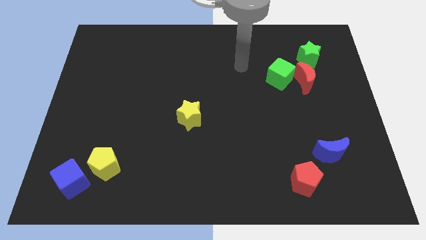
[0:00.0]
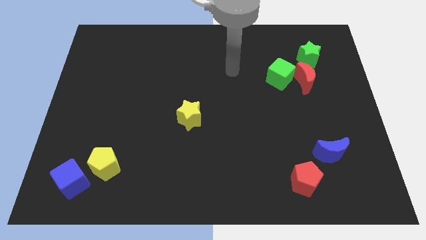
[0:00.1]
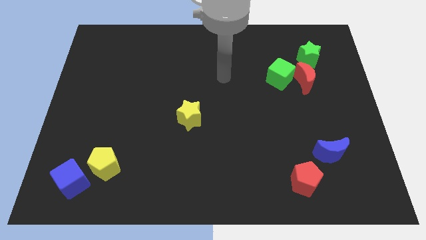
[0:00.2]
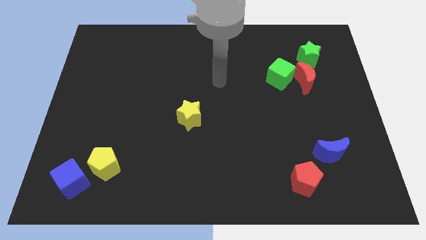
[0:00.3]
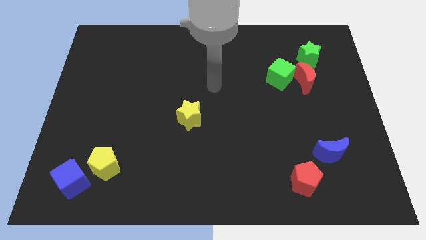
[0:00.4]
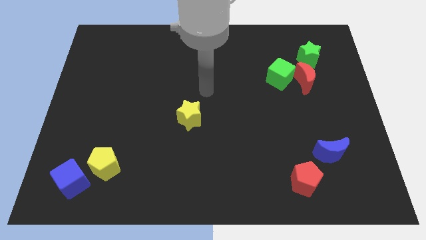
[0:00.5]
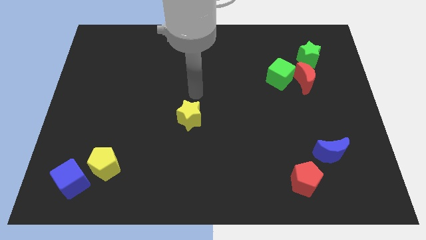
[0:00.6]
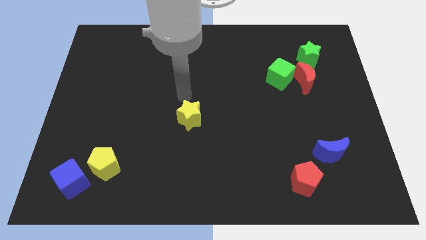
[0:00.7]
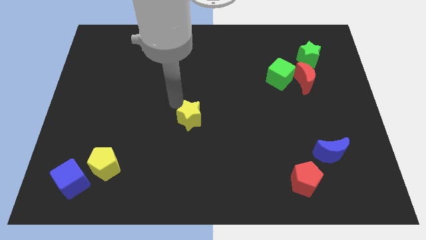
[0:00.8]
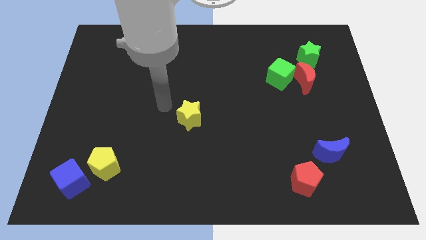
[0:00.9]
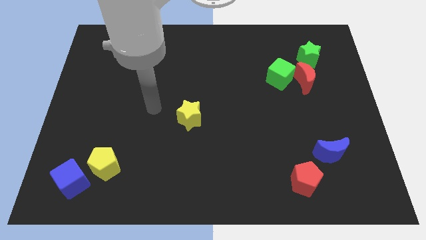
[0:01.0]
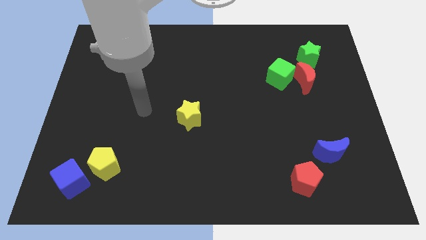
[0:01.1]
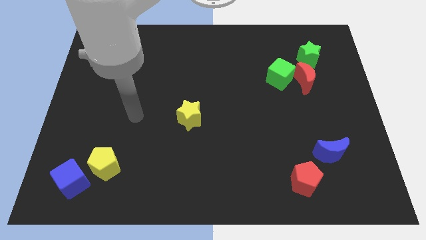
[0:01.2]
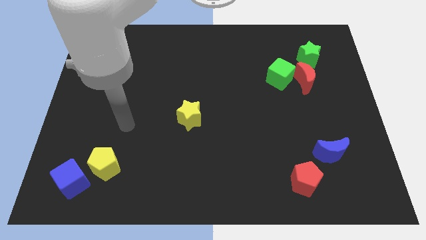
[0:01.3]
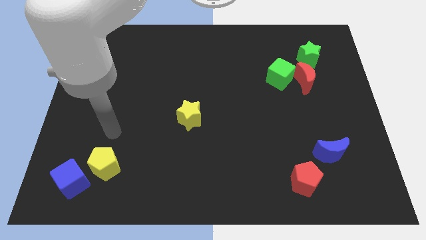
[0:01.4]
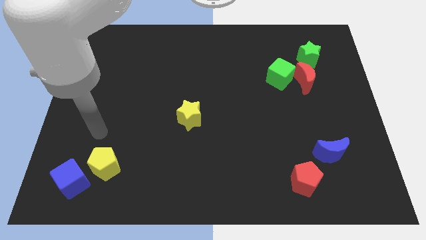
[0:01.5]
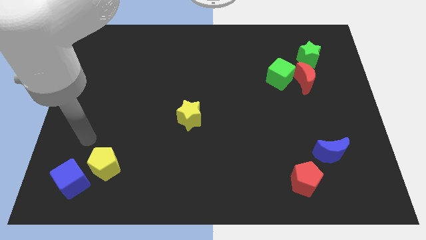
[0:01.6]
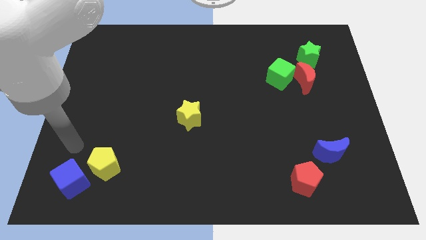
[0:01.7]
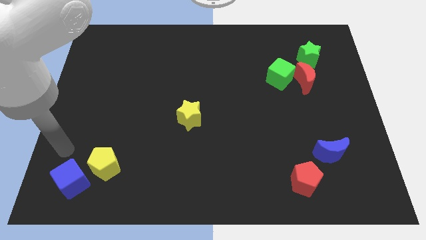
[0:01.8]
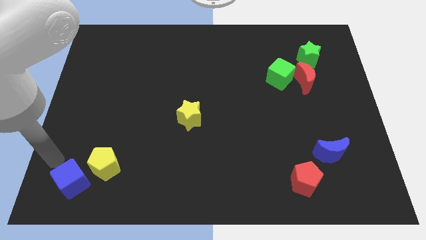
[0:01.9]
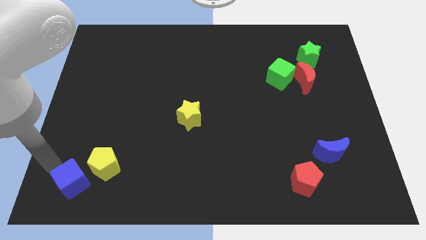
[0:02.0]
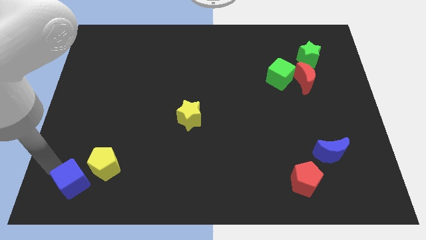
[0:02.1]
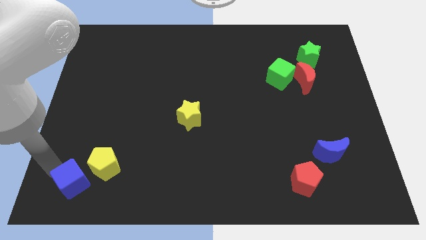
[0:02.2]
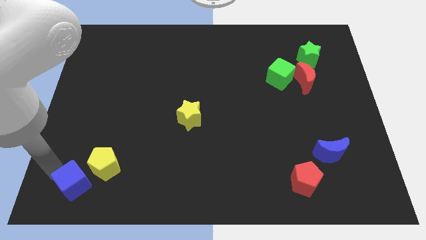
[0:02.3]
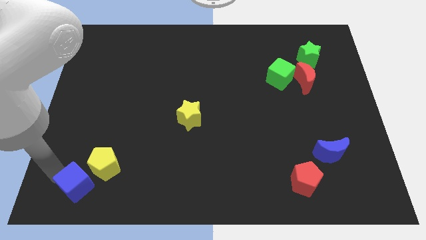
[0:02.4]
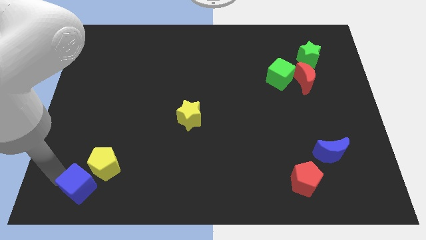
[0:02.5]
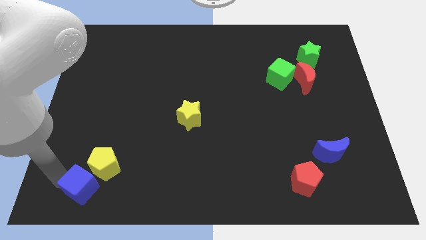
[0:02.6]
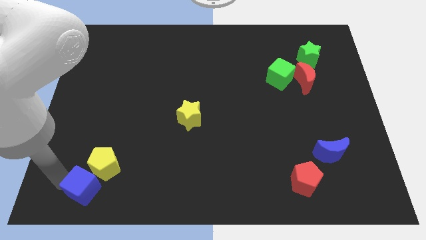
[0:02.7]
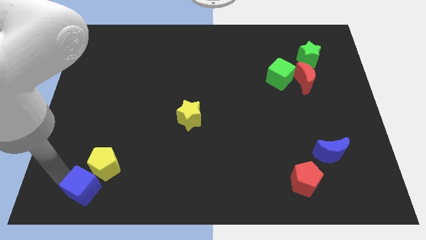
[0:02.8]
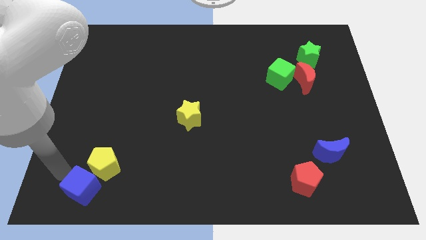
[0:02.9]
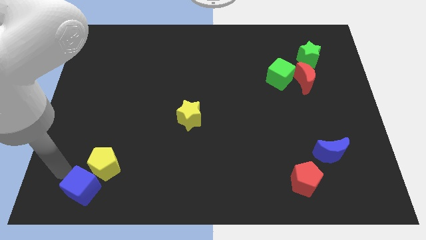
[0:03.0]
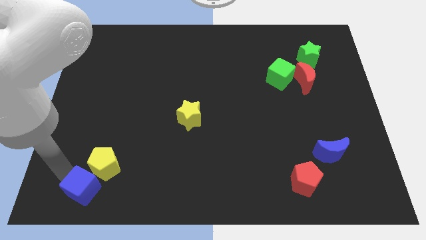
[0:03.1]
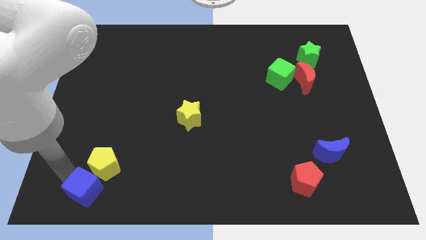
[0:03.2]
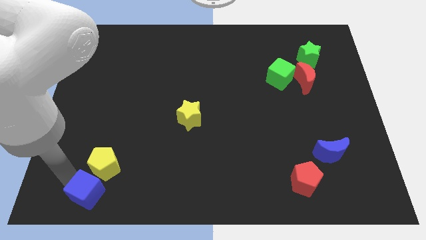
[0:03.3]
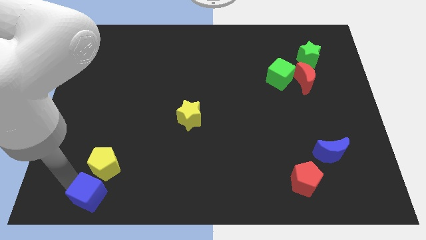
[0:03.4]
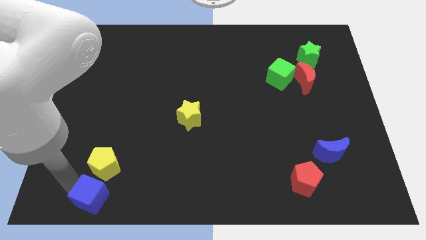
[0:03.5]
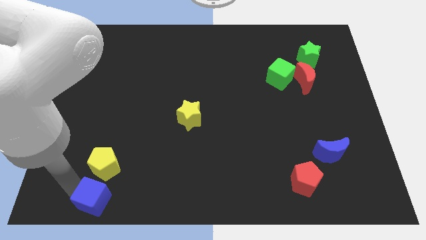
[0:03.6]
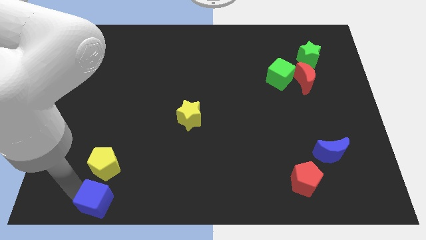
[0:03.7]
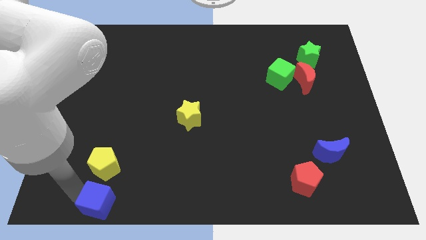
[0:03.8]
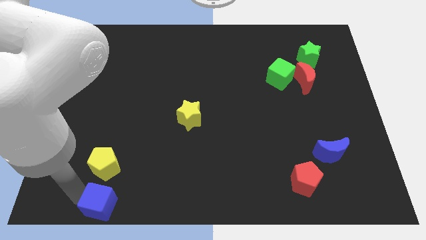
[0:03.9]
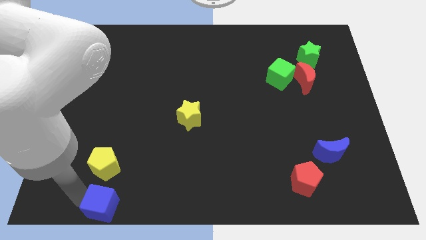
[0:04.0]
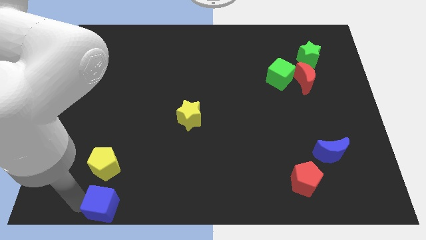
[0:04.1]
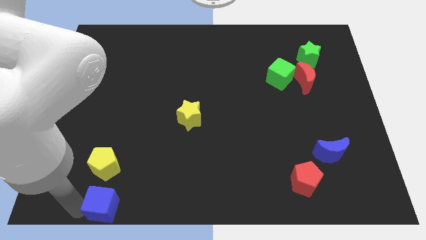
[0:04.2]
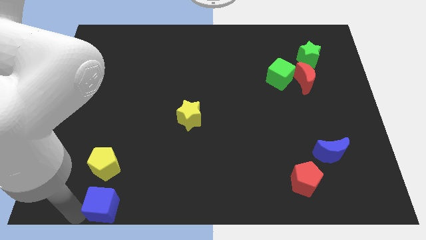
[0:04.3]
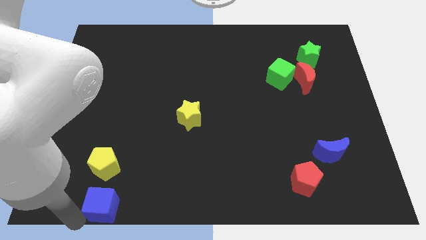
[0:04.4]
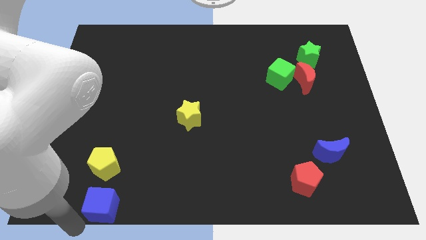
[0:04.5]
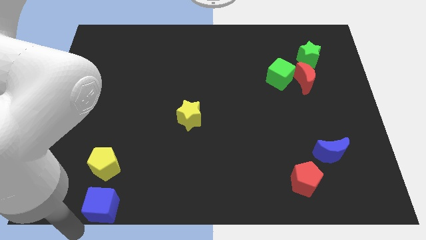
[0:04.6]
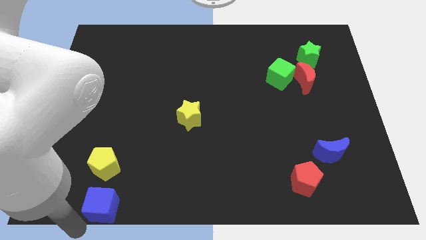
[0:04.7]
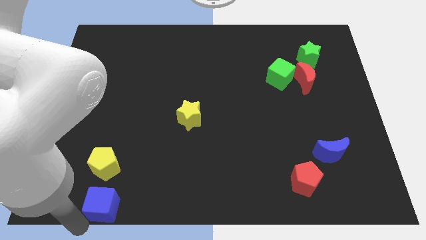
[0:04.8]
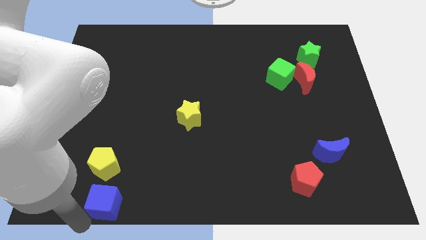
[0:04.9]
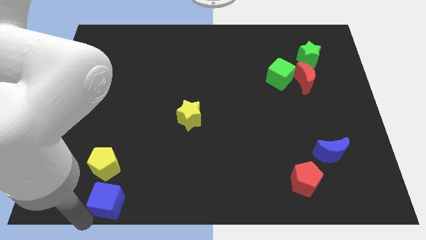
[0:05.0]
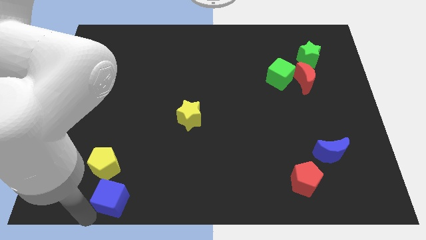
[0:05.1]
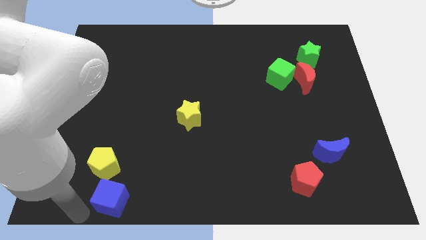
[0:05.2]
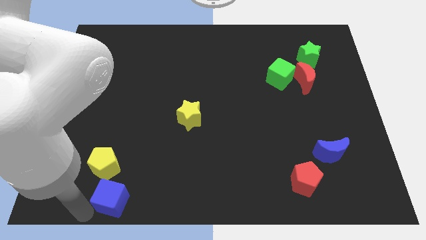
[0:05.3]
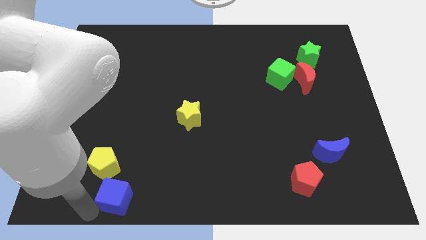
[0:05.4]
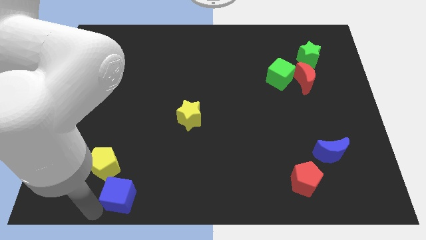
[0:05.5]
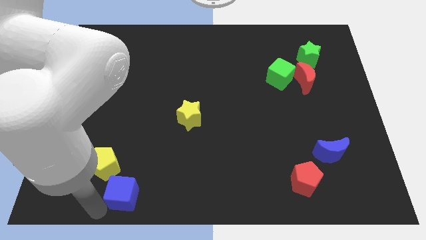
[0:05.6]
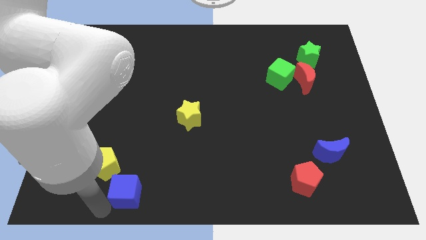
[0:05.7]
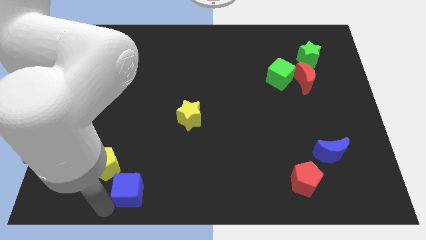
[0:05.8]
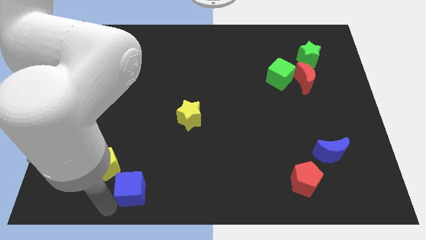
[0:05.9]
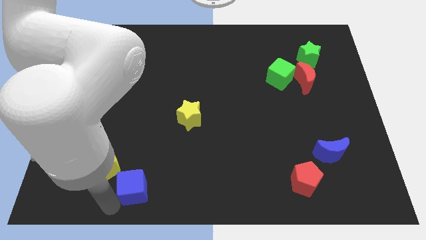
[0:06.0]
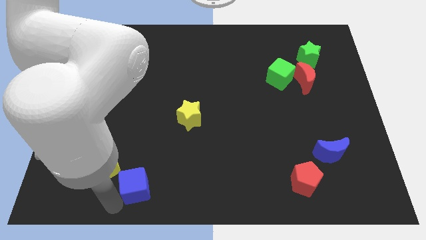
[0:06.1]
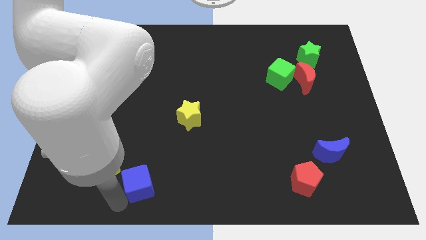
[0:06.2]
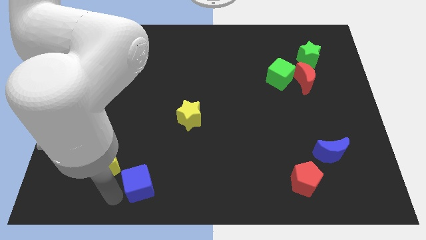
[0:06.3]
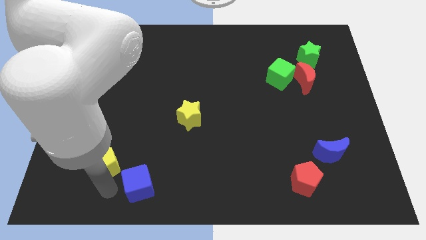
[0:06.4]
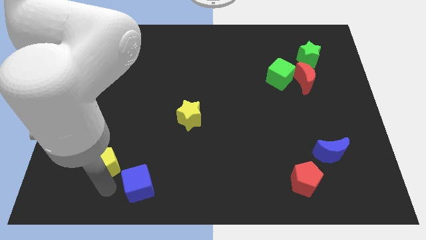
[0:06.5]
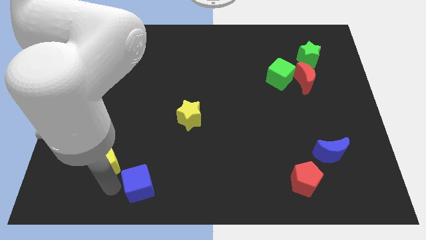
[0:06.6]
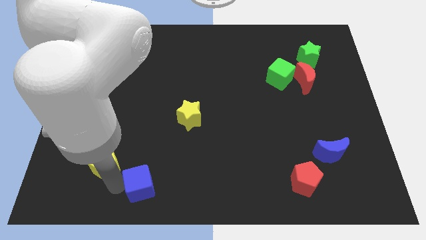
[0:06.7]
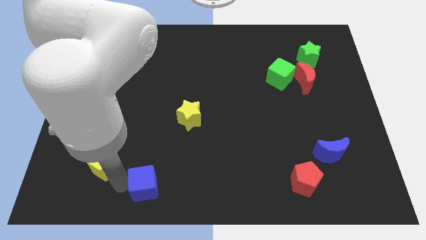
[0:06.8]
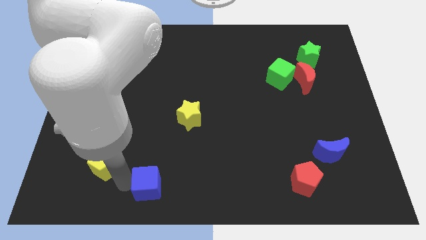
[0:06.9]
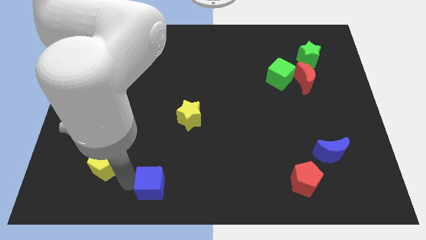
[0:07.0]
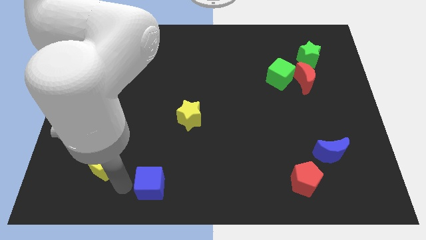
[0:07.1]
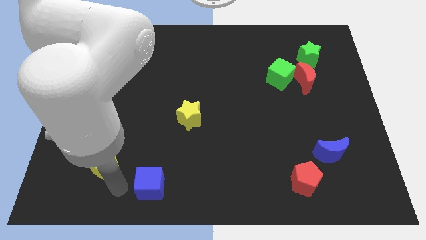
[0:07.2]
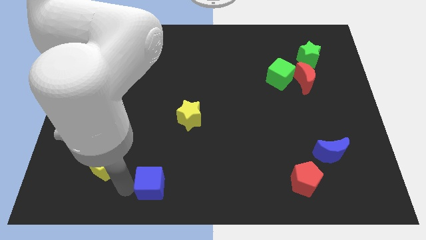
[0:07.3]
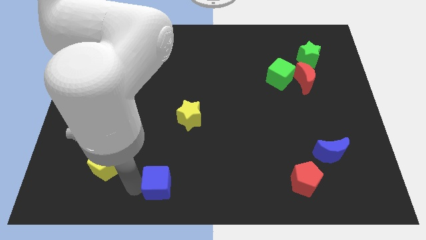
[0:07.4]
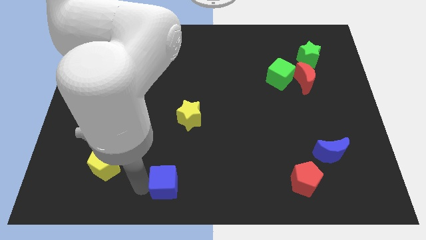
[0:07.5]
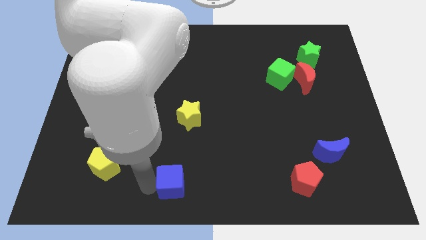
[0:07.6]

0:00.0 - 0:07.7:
slide the blue cube right

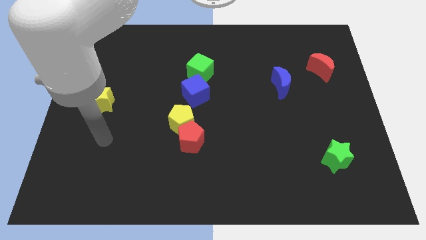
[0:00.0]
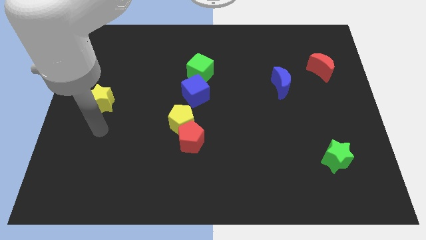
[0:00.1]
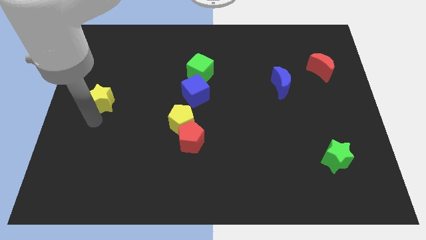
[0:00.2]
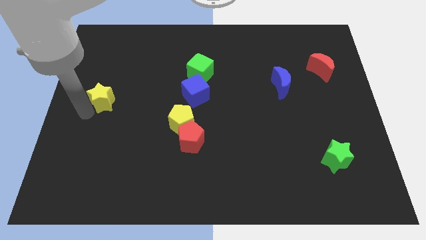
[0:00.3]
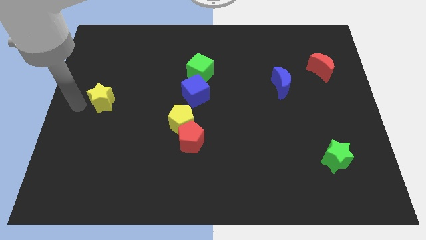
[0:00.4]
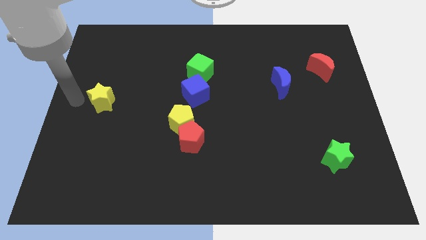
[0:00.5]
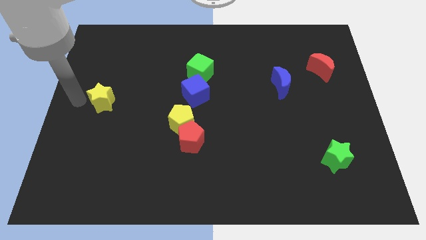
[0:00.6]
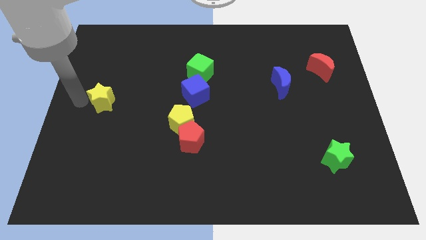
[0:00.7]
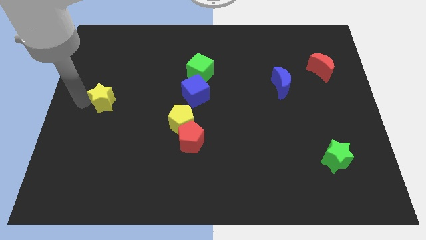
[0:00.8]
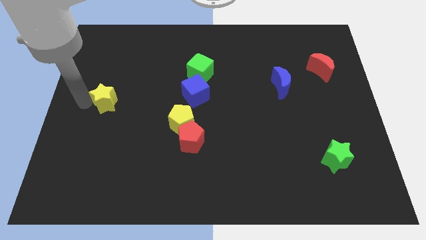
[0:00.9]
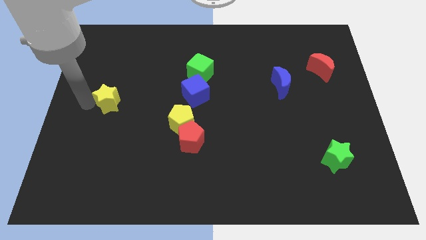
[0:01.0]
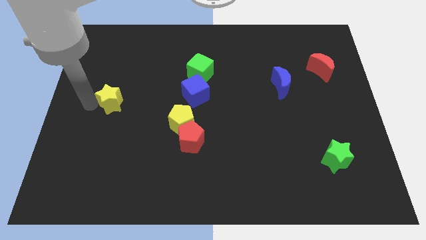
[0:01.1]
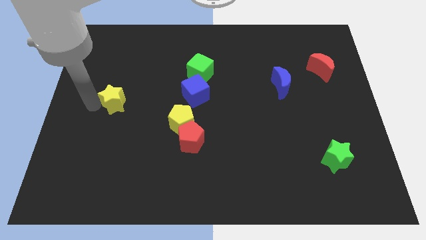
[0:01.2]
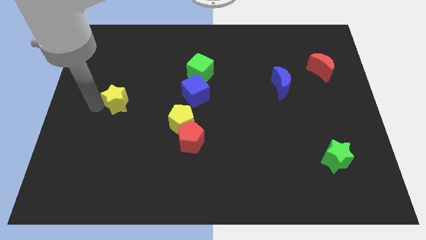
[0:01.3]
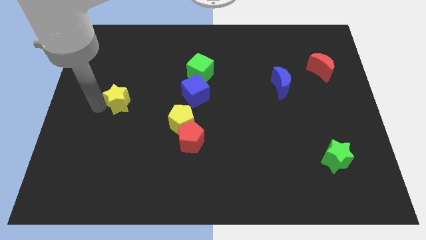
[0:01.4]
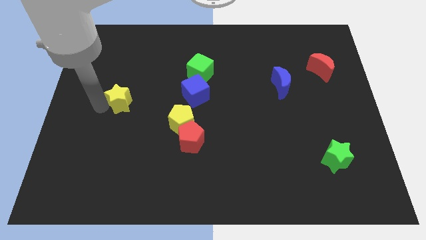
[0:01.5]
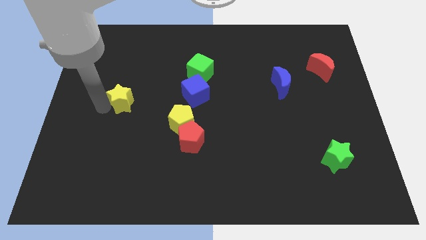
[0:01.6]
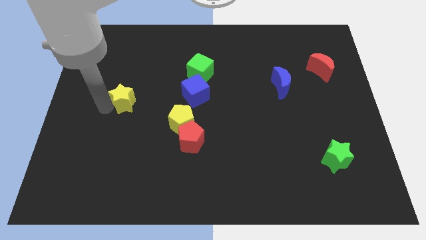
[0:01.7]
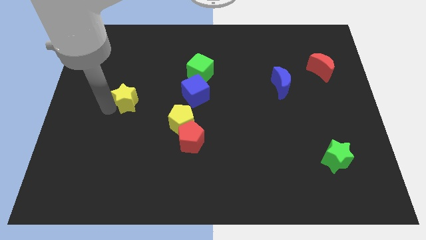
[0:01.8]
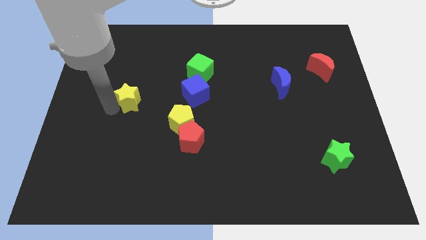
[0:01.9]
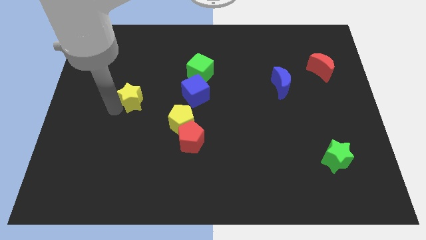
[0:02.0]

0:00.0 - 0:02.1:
push the yellow star to the right slightly
